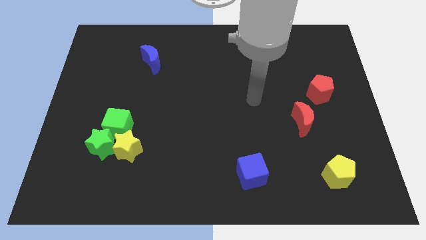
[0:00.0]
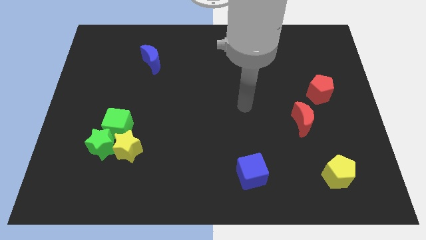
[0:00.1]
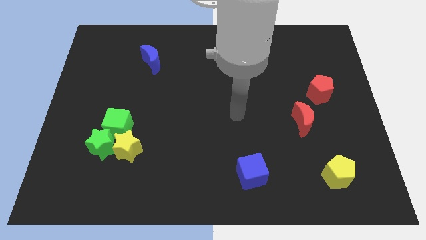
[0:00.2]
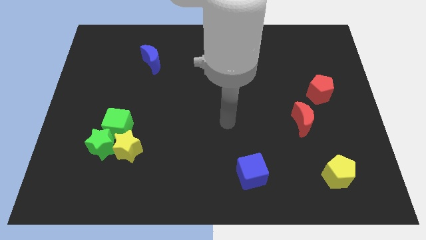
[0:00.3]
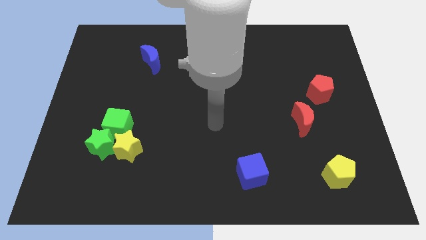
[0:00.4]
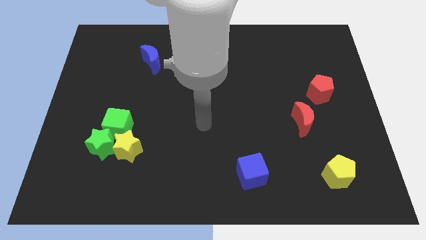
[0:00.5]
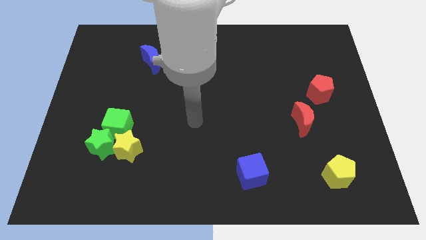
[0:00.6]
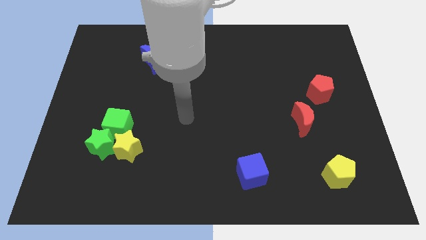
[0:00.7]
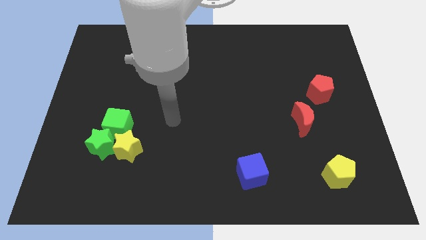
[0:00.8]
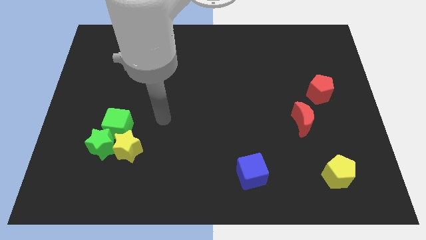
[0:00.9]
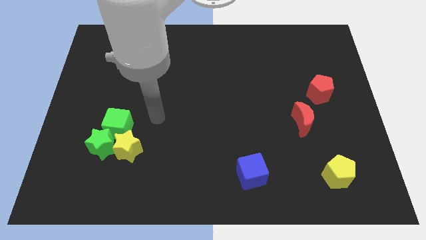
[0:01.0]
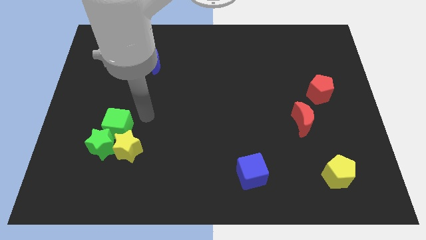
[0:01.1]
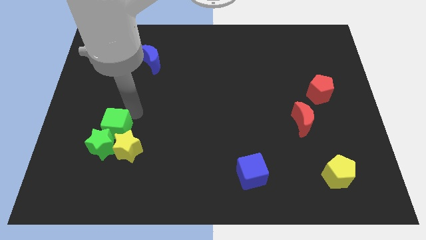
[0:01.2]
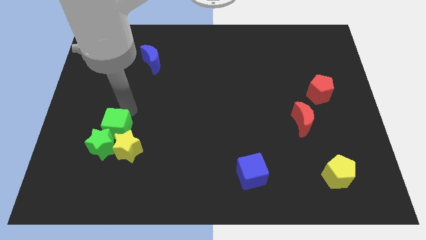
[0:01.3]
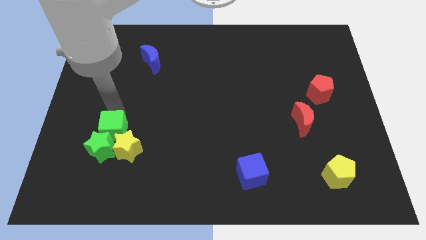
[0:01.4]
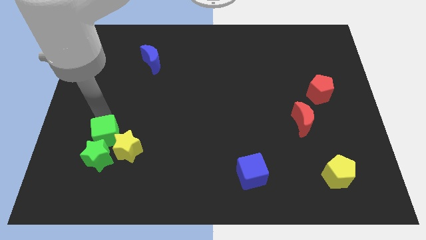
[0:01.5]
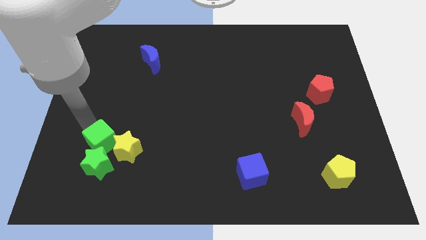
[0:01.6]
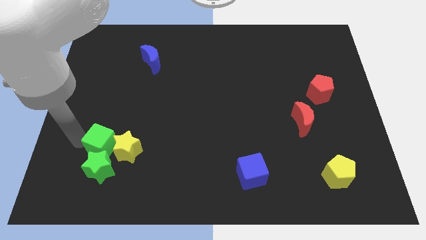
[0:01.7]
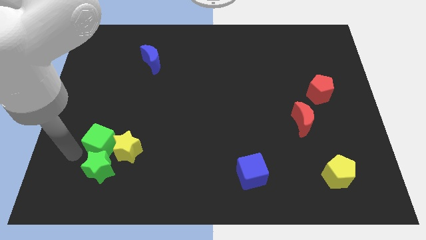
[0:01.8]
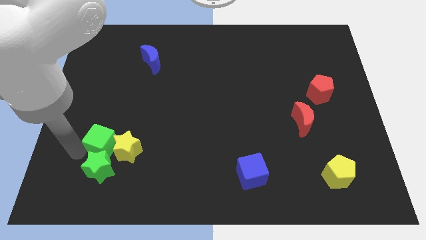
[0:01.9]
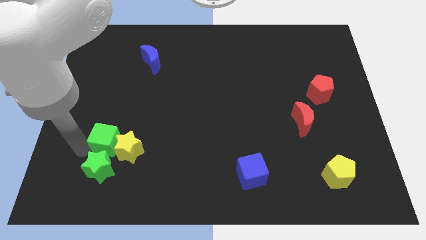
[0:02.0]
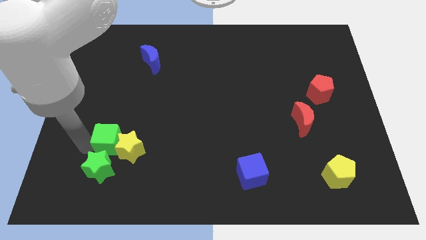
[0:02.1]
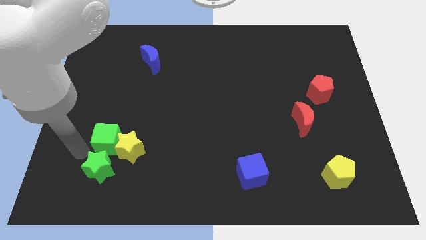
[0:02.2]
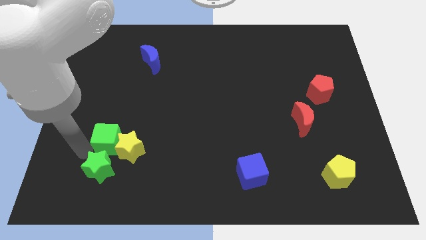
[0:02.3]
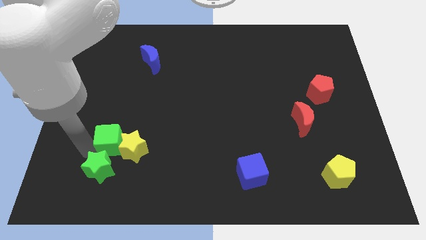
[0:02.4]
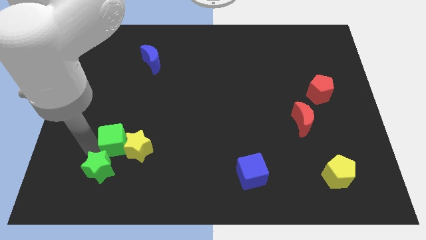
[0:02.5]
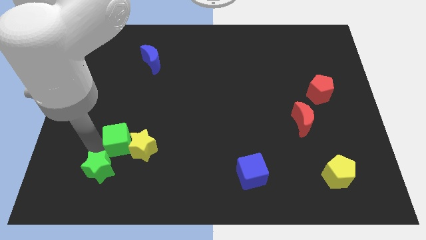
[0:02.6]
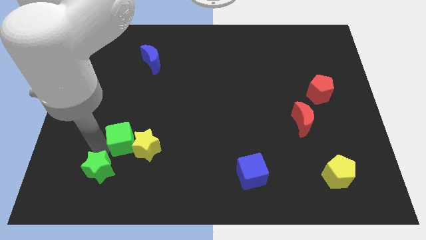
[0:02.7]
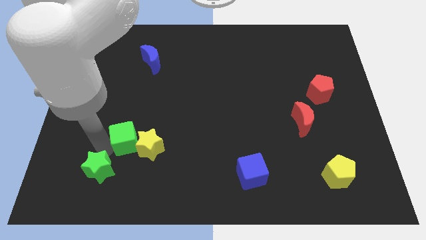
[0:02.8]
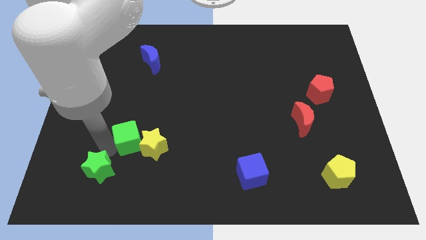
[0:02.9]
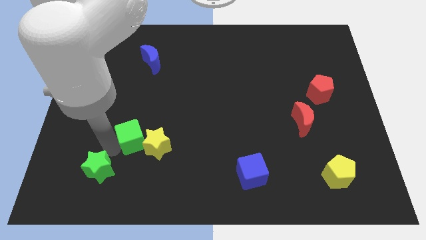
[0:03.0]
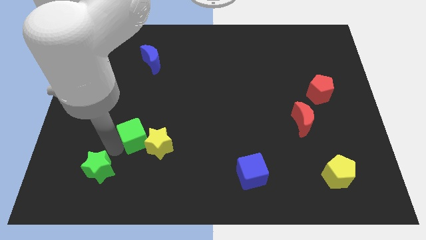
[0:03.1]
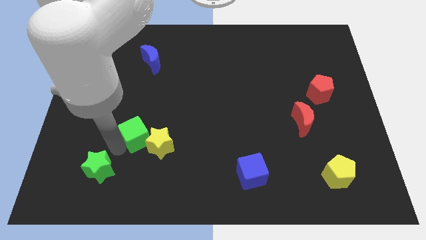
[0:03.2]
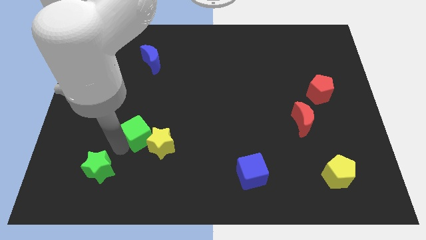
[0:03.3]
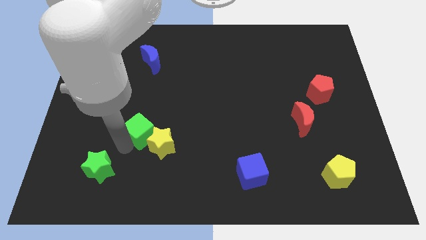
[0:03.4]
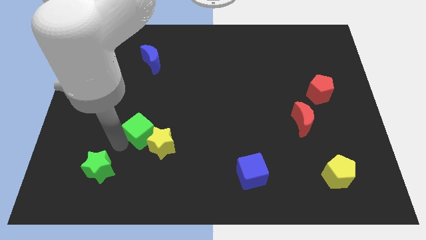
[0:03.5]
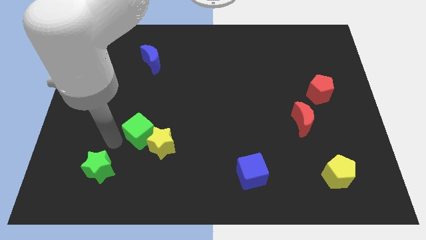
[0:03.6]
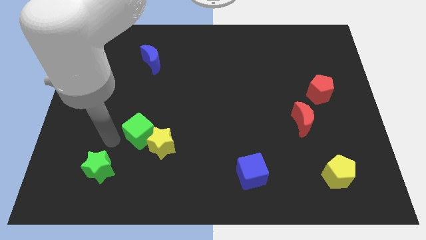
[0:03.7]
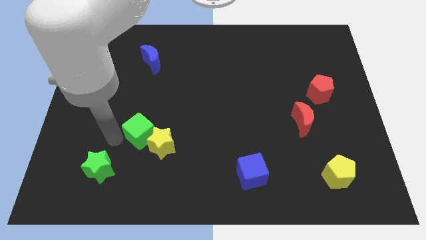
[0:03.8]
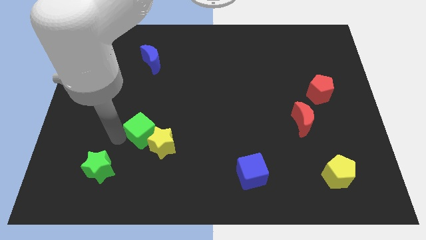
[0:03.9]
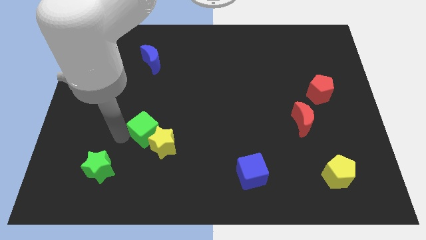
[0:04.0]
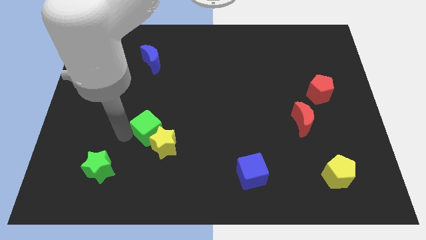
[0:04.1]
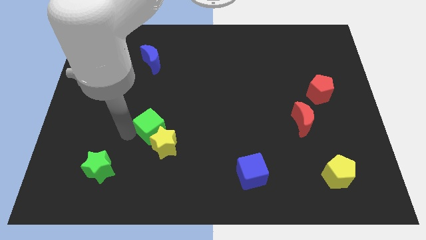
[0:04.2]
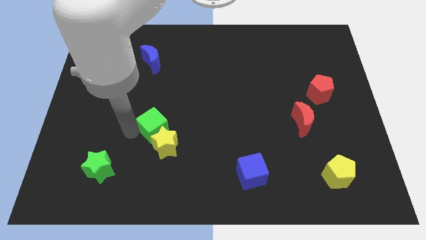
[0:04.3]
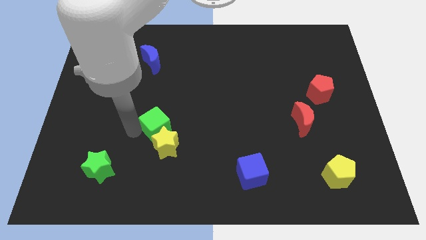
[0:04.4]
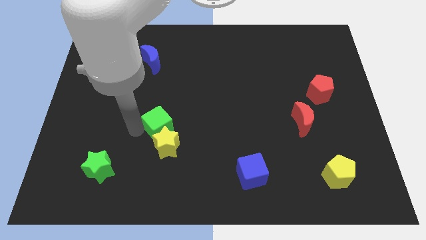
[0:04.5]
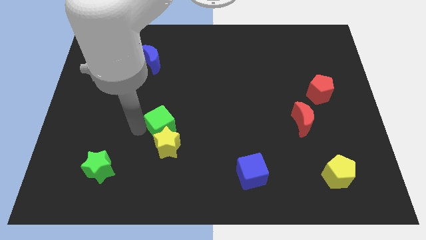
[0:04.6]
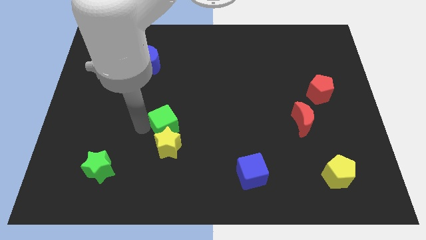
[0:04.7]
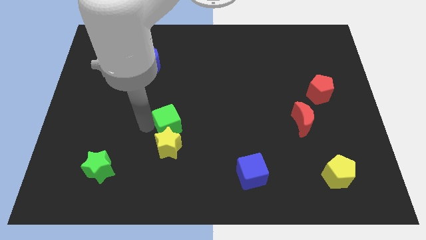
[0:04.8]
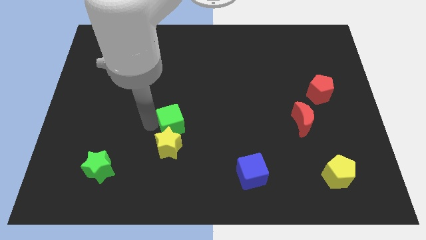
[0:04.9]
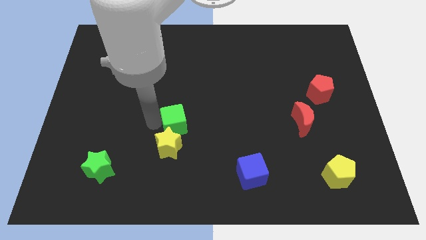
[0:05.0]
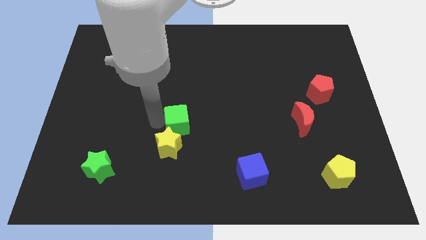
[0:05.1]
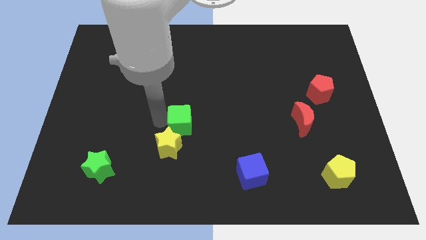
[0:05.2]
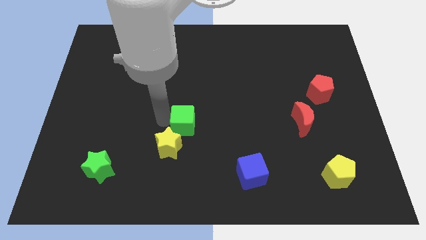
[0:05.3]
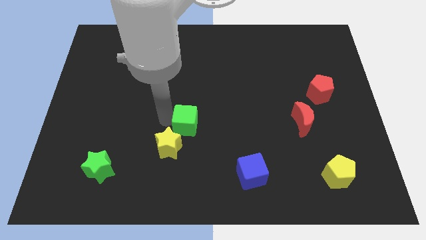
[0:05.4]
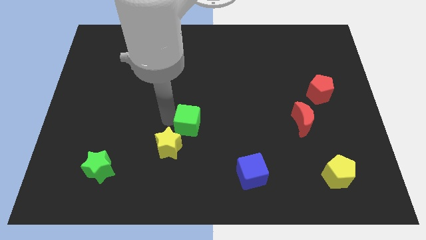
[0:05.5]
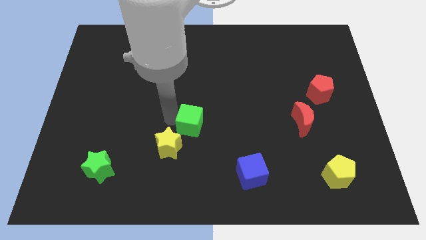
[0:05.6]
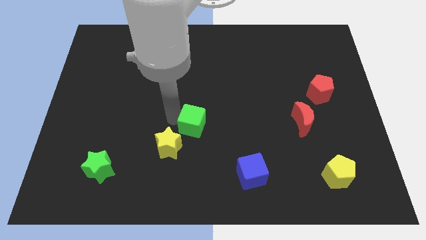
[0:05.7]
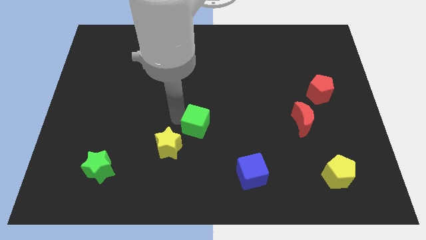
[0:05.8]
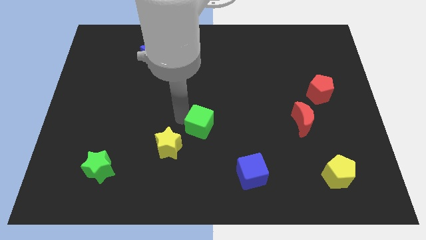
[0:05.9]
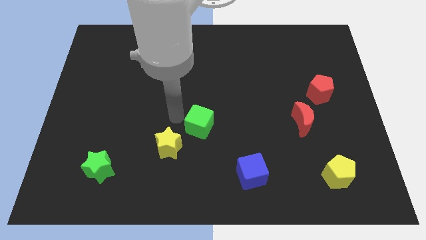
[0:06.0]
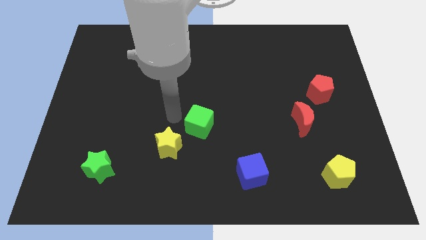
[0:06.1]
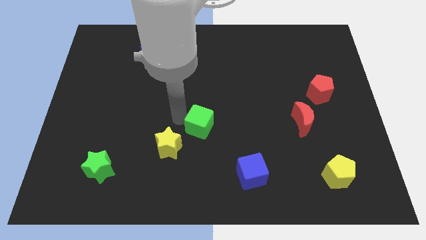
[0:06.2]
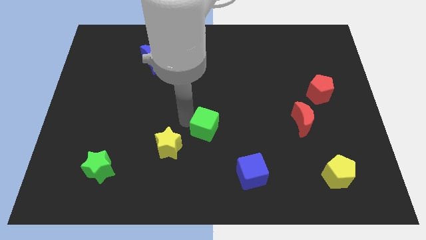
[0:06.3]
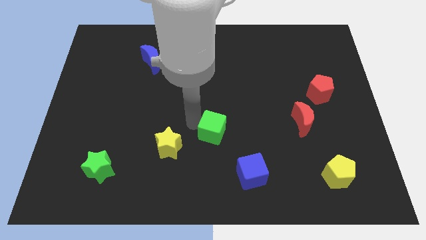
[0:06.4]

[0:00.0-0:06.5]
move the green cube right

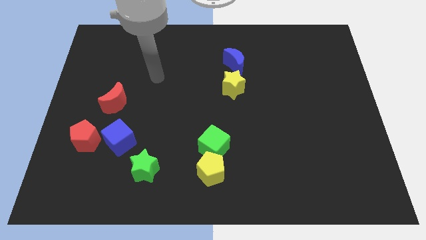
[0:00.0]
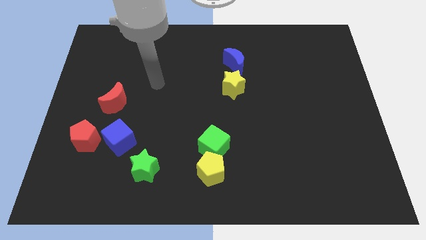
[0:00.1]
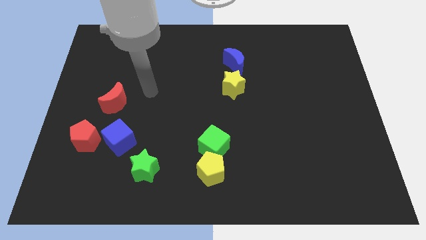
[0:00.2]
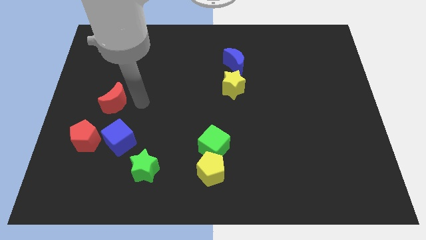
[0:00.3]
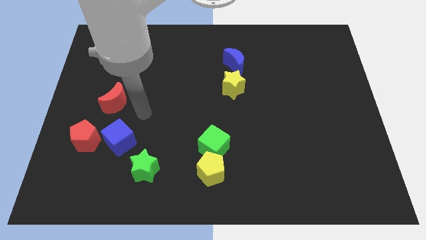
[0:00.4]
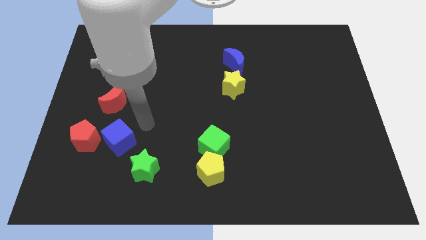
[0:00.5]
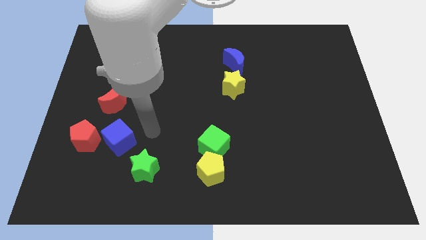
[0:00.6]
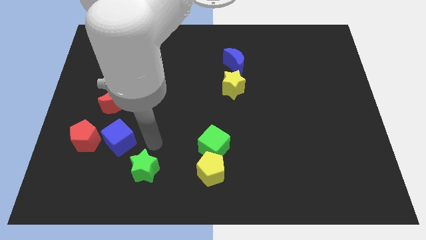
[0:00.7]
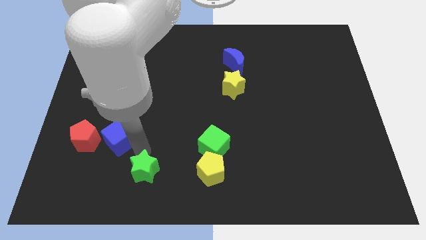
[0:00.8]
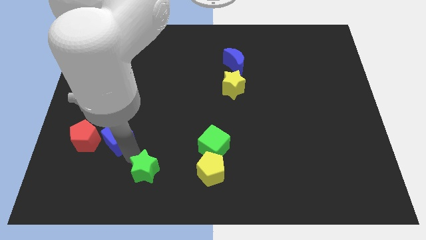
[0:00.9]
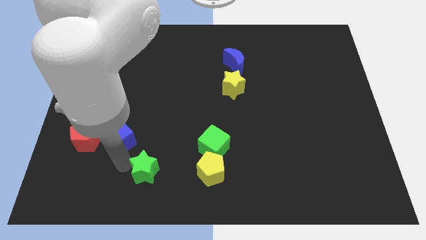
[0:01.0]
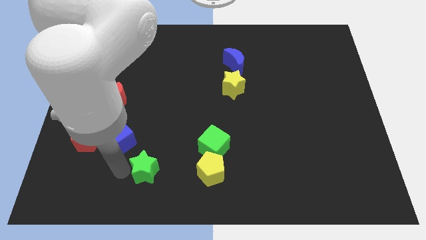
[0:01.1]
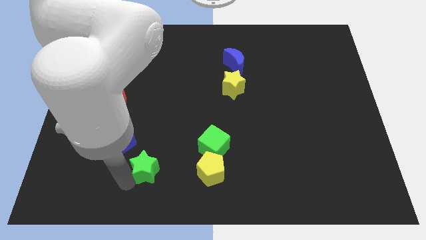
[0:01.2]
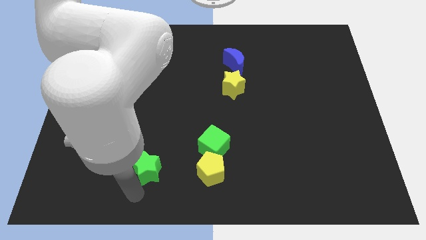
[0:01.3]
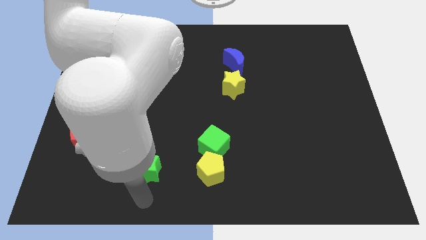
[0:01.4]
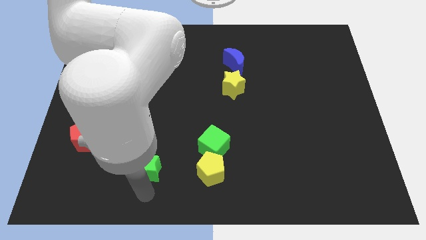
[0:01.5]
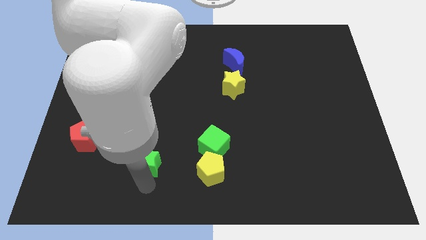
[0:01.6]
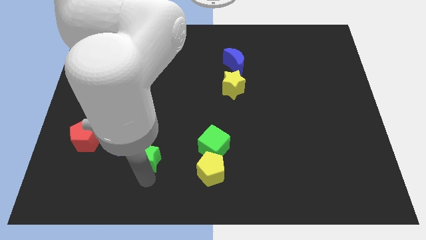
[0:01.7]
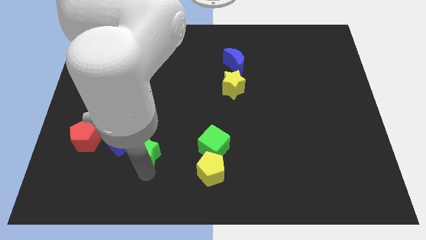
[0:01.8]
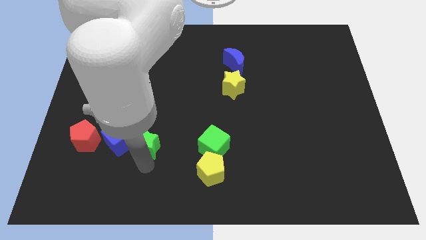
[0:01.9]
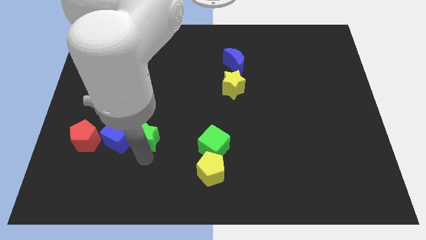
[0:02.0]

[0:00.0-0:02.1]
push the green star somewhat up
